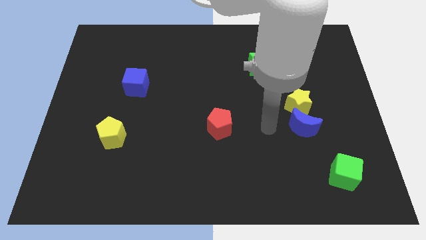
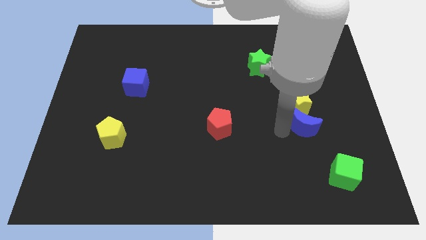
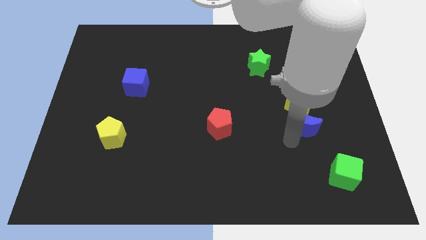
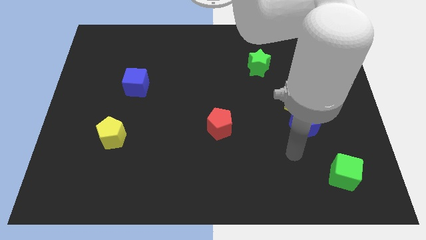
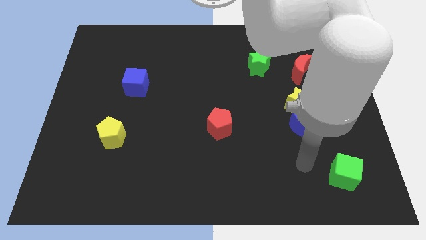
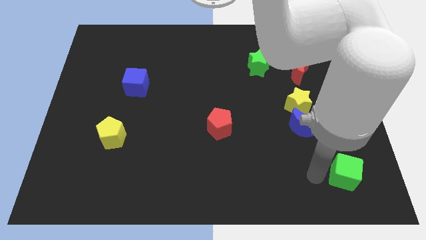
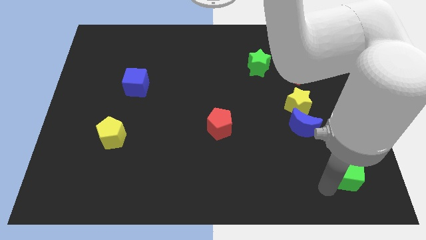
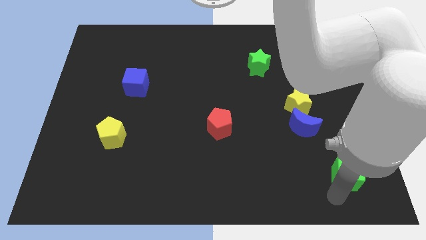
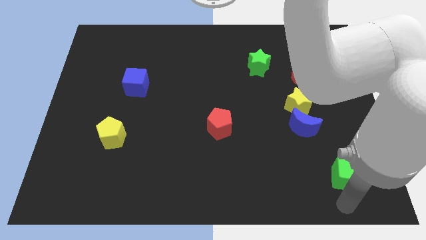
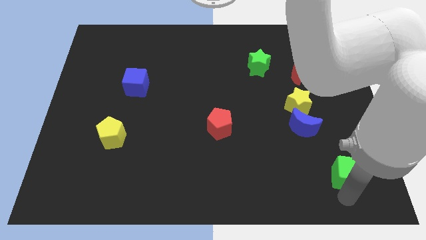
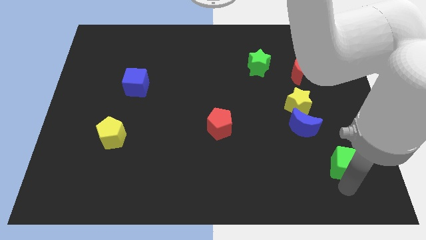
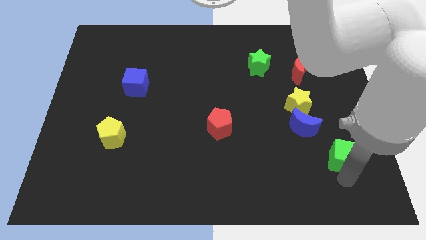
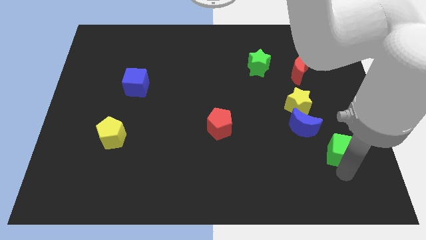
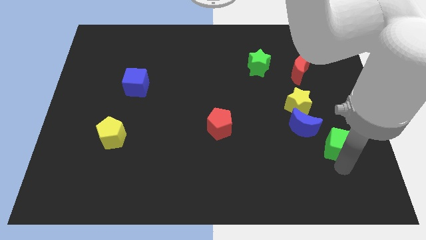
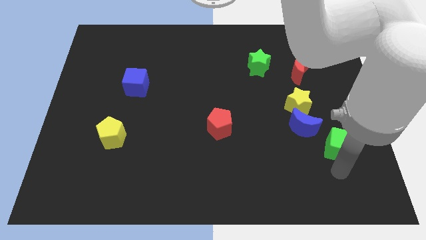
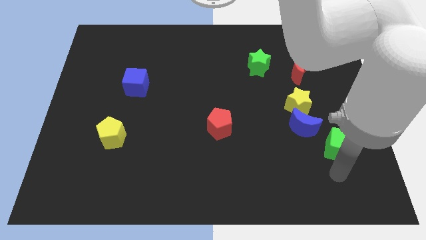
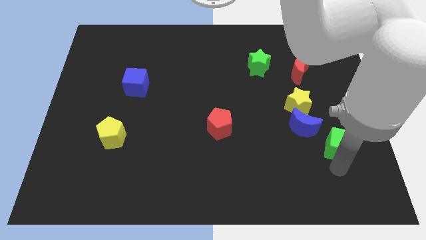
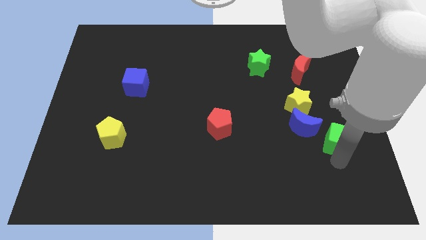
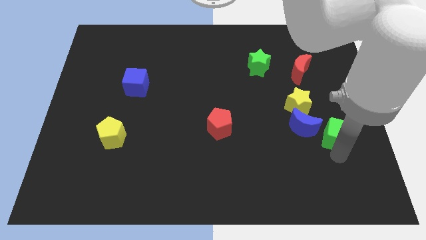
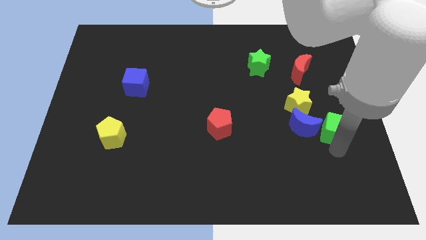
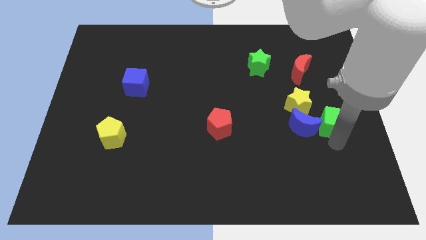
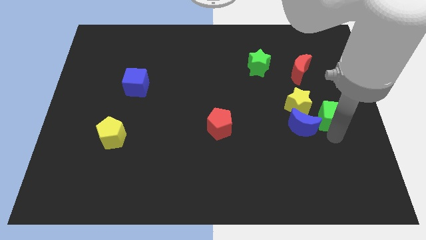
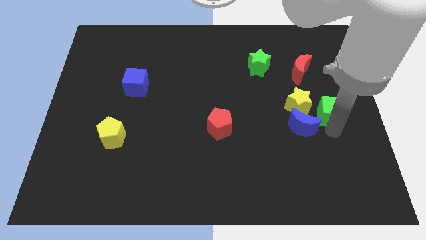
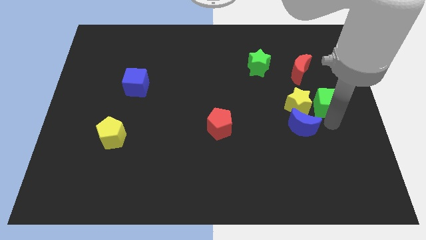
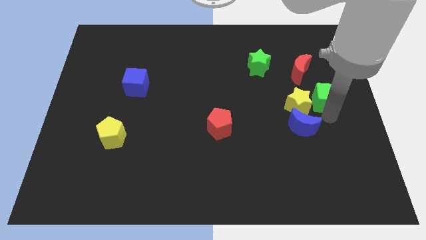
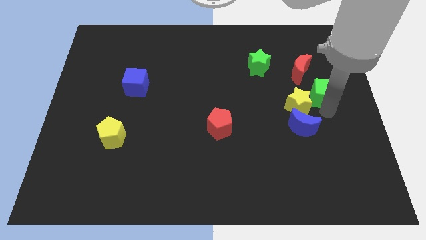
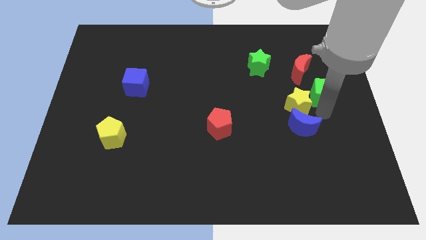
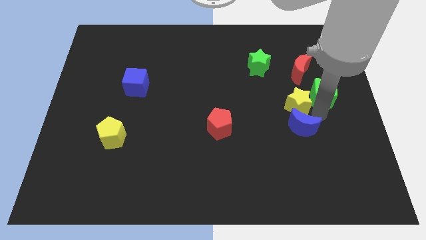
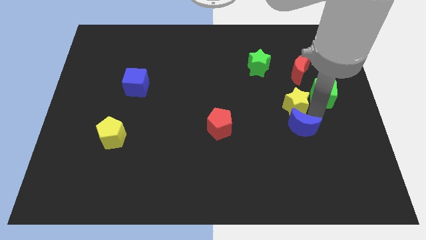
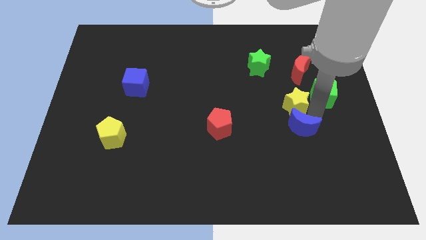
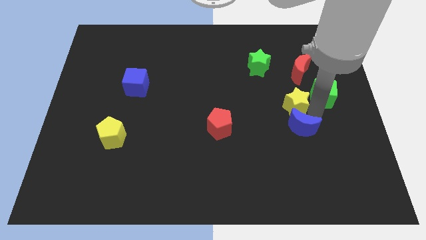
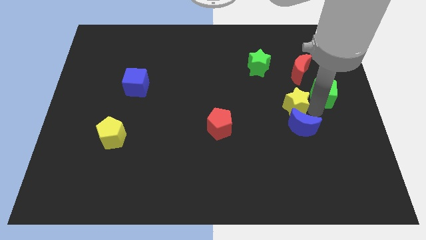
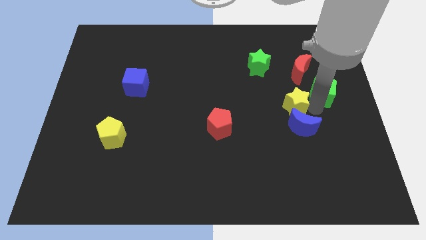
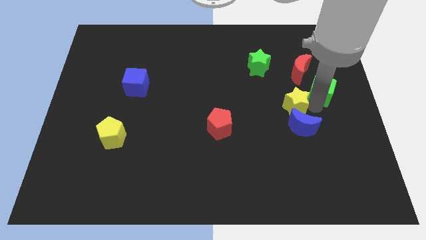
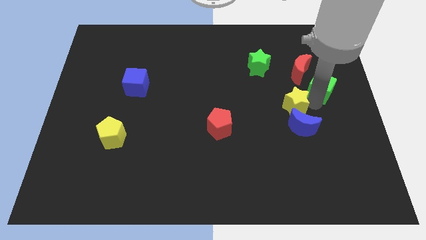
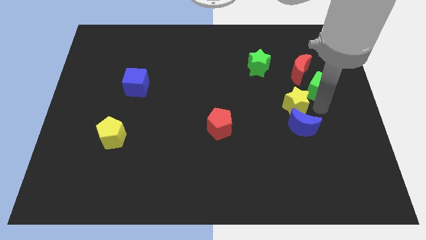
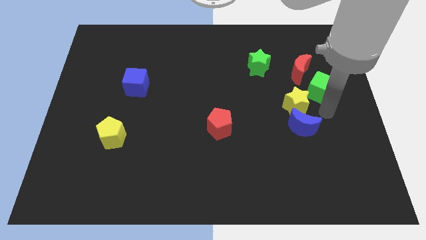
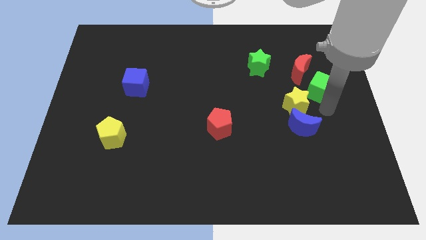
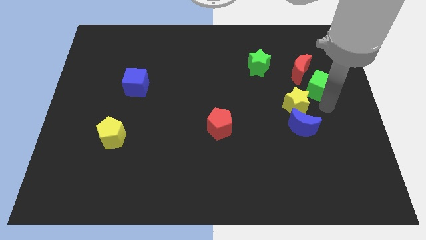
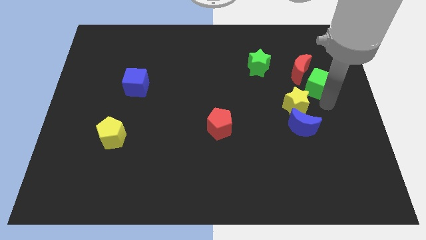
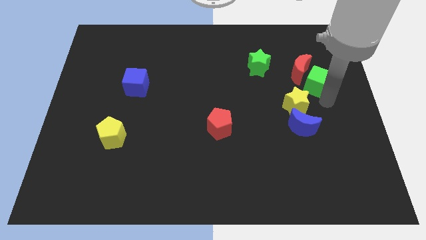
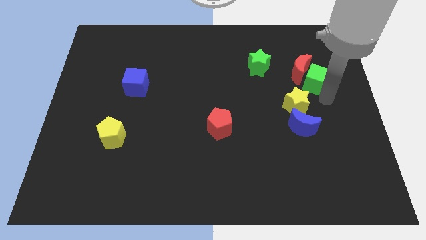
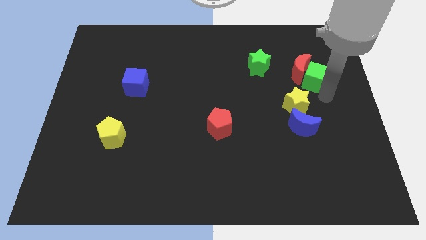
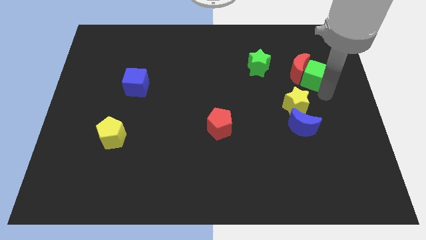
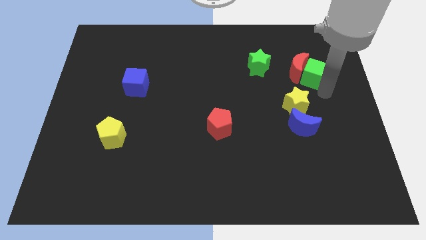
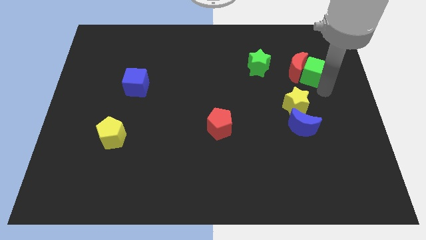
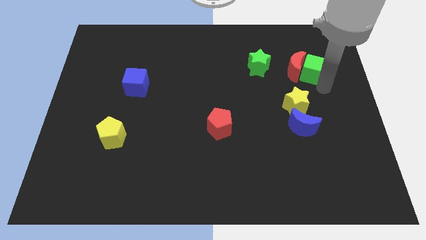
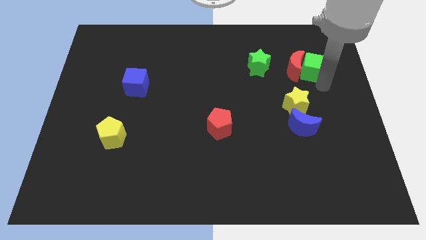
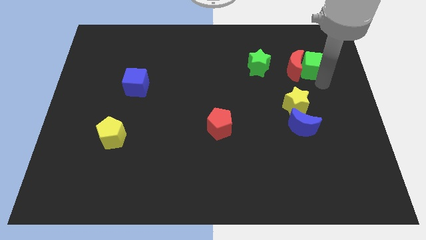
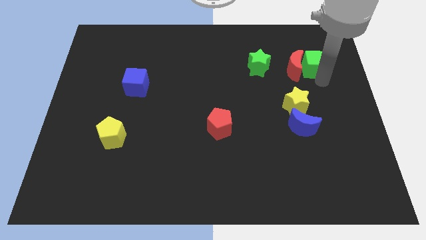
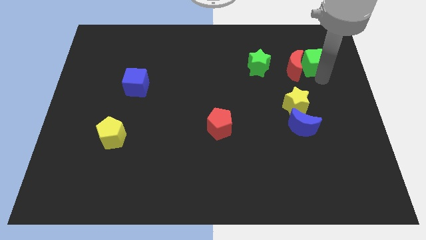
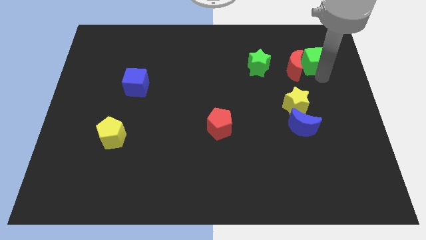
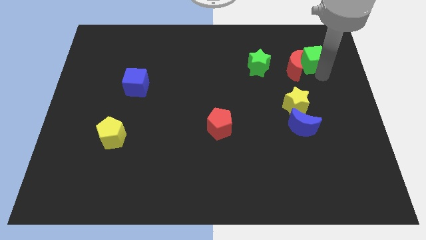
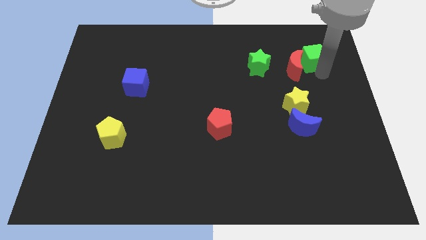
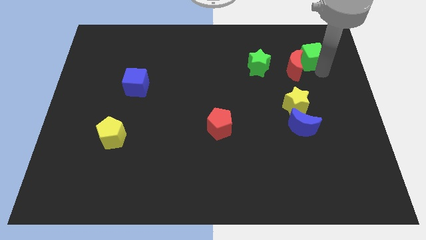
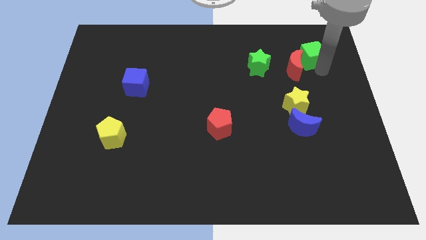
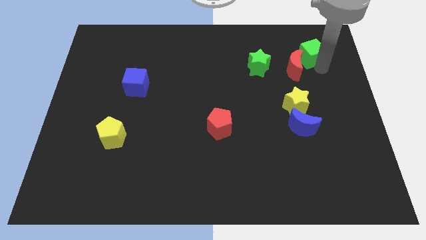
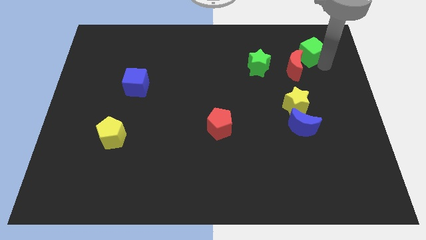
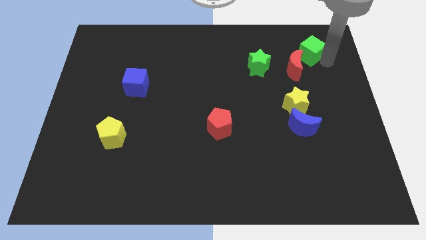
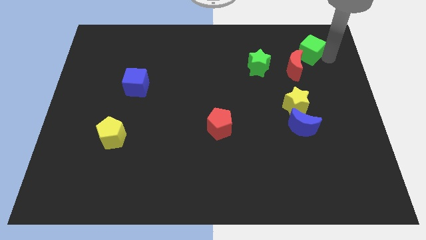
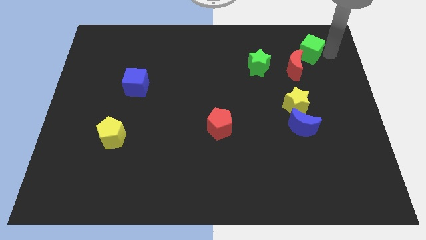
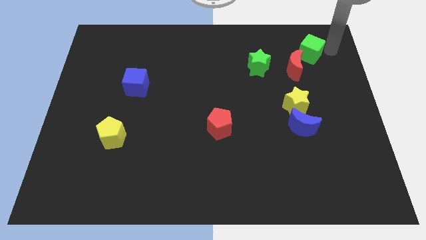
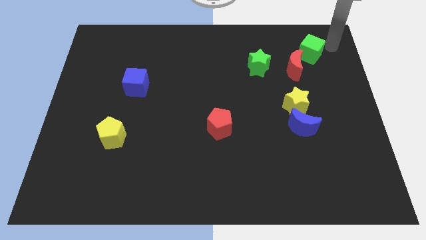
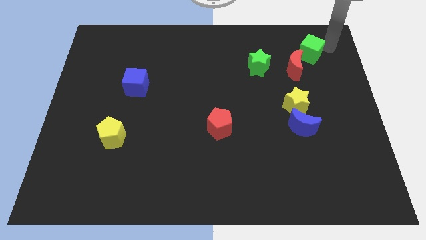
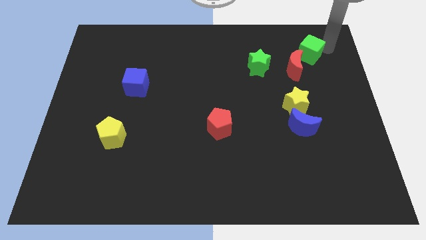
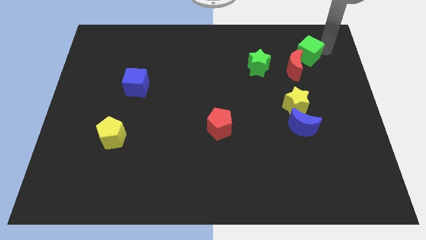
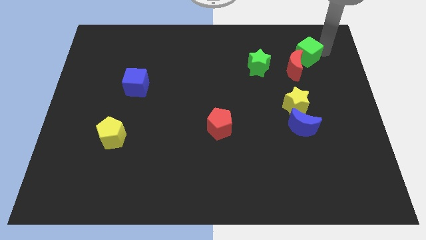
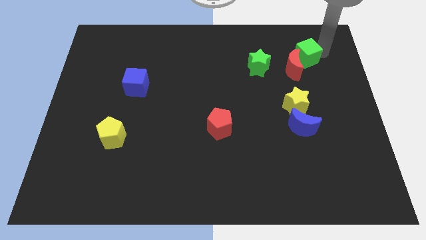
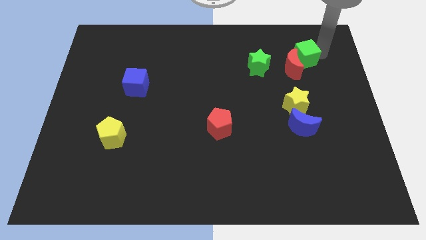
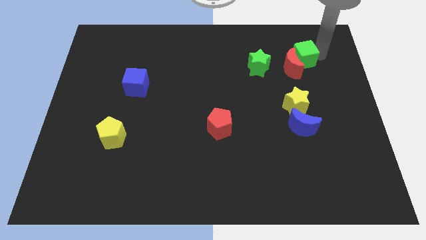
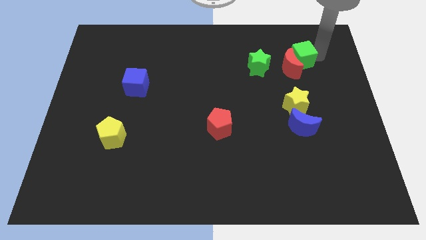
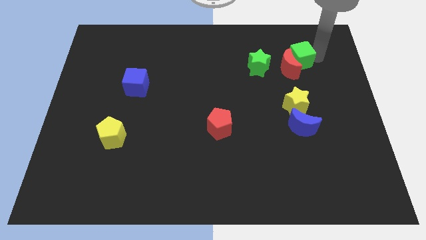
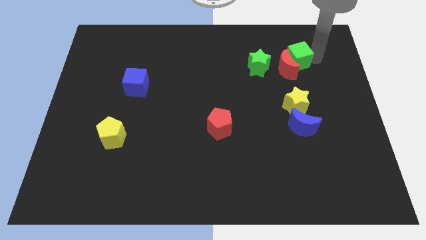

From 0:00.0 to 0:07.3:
push the green cube to the top of the yellow star
